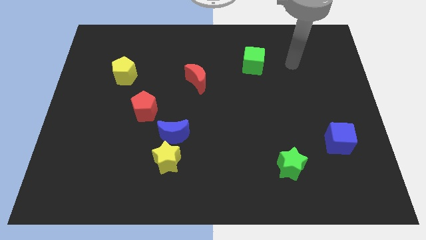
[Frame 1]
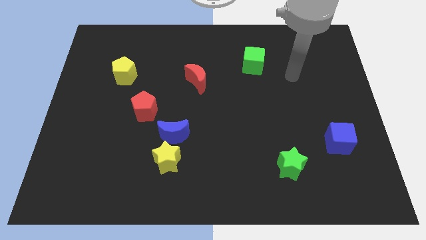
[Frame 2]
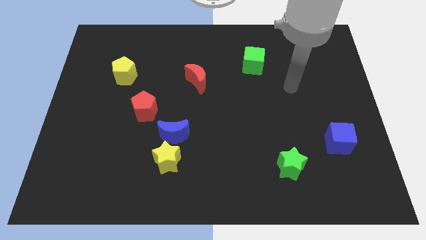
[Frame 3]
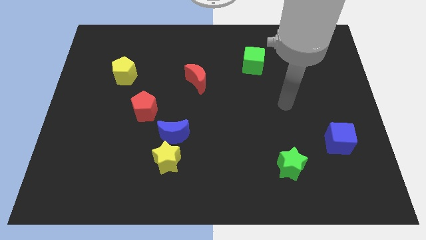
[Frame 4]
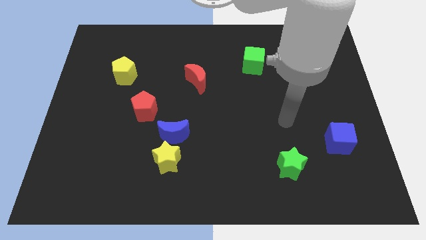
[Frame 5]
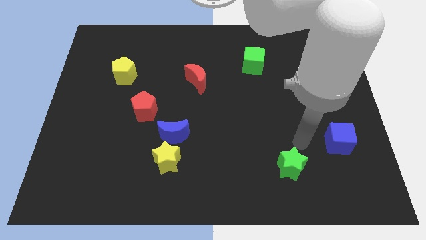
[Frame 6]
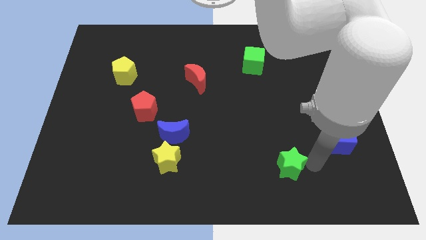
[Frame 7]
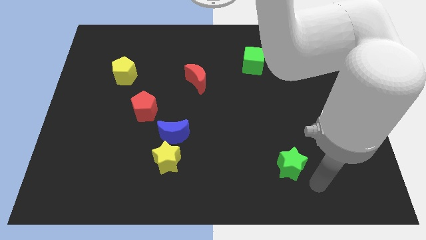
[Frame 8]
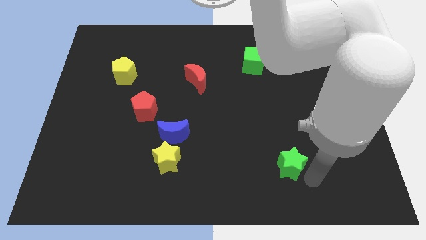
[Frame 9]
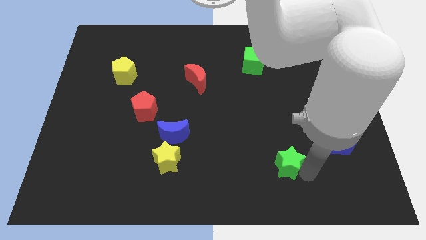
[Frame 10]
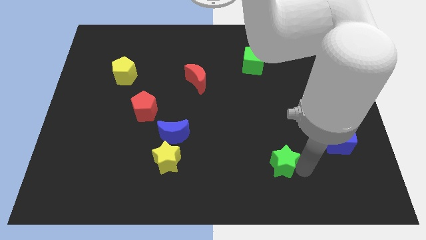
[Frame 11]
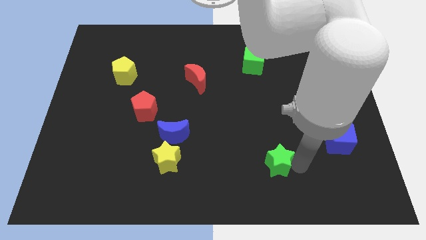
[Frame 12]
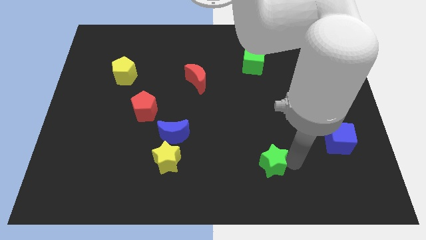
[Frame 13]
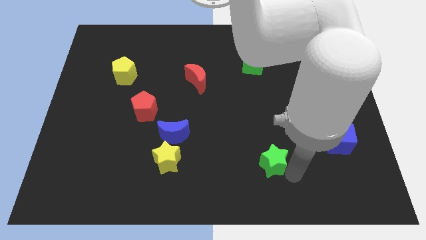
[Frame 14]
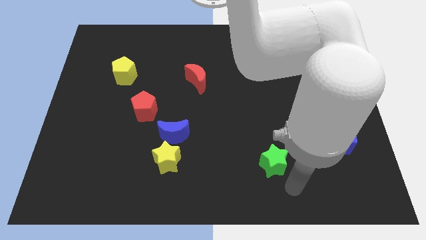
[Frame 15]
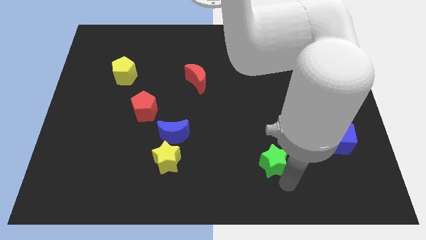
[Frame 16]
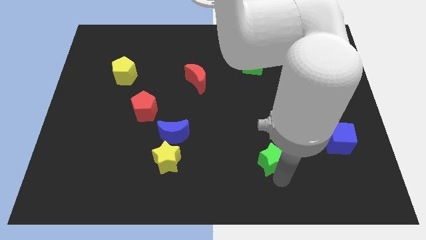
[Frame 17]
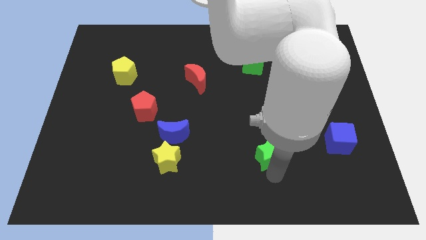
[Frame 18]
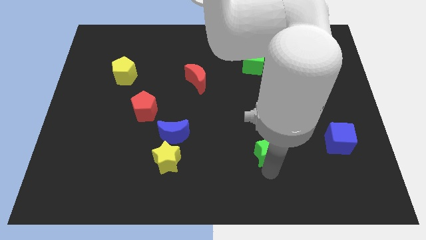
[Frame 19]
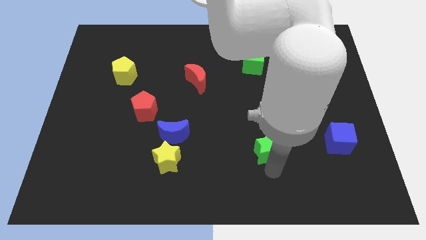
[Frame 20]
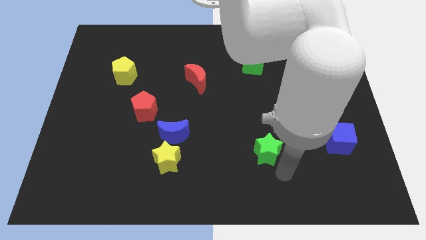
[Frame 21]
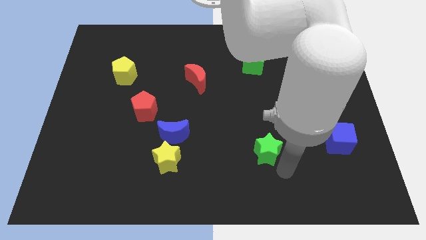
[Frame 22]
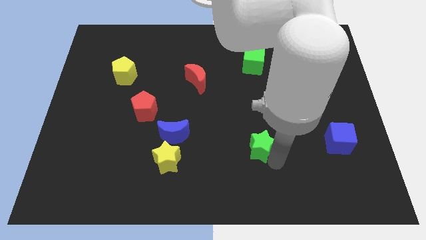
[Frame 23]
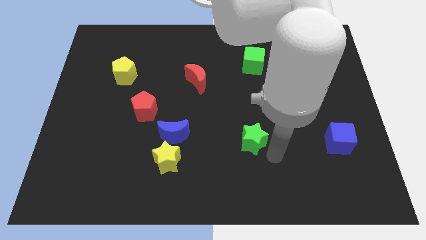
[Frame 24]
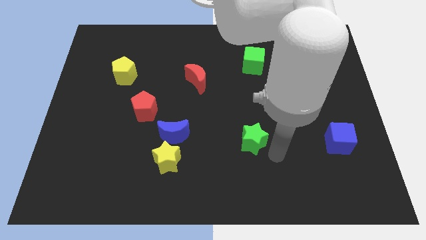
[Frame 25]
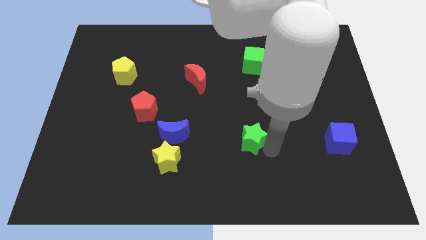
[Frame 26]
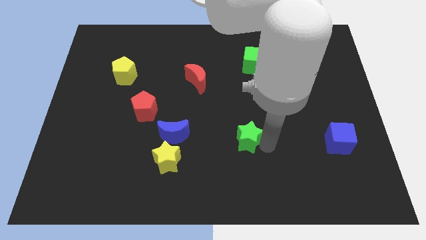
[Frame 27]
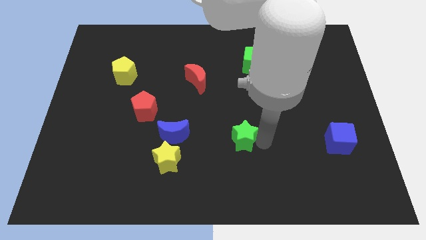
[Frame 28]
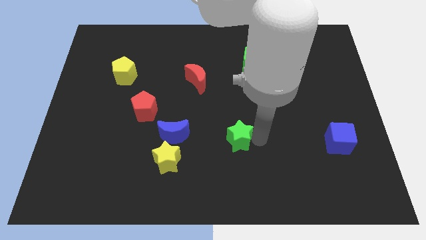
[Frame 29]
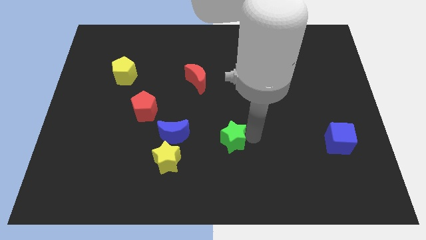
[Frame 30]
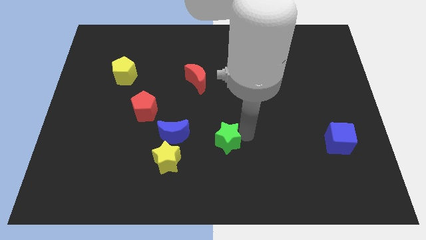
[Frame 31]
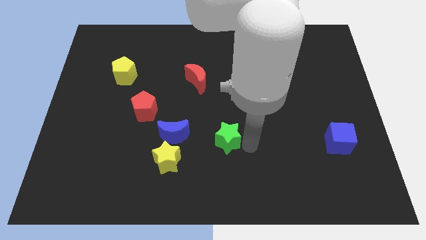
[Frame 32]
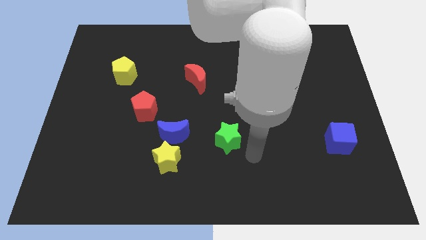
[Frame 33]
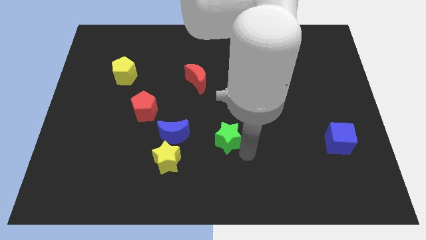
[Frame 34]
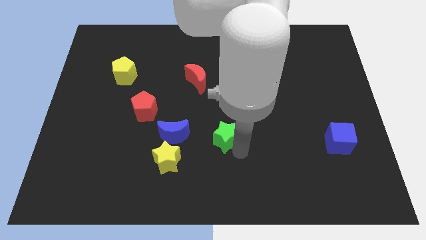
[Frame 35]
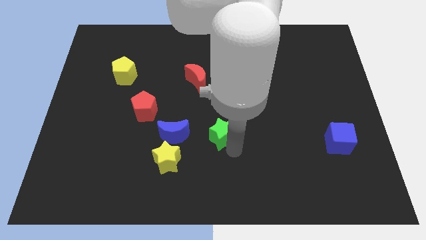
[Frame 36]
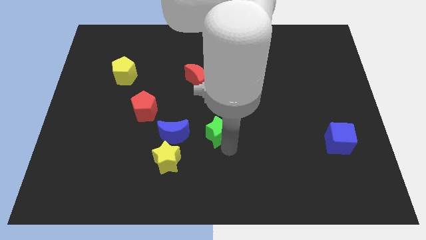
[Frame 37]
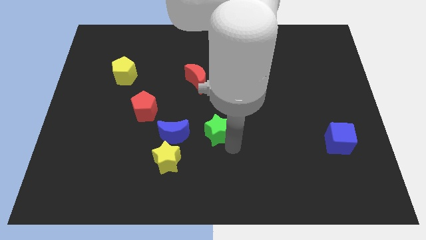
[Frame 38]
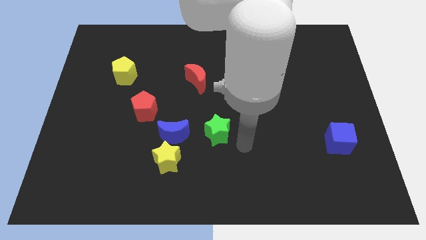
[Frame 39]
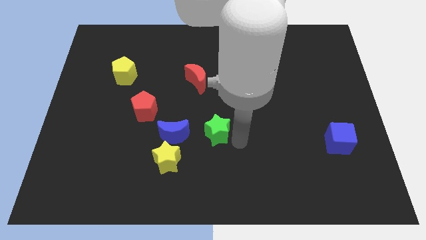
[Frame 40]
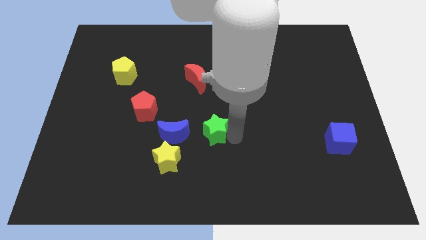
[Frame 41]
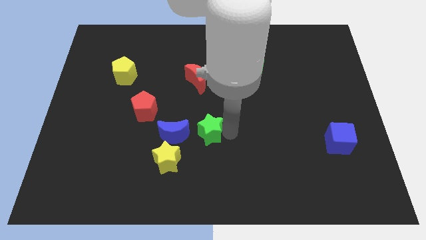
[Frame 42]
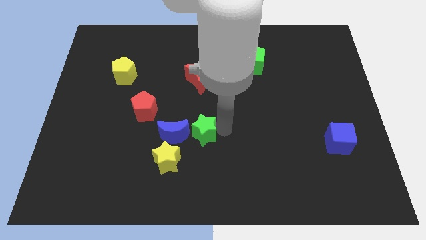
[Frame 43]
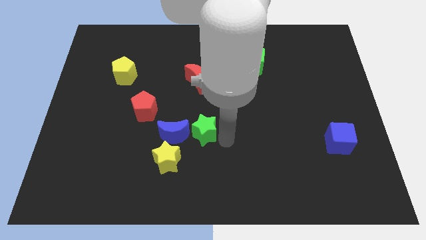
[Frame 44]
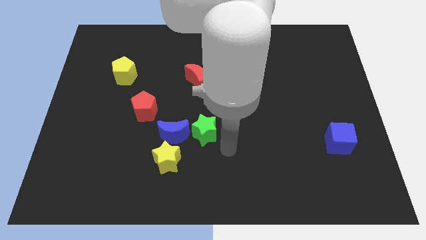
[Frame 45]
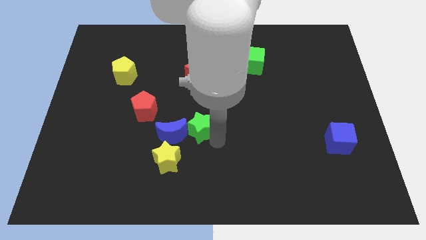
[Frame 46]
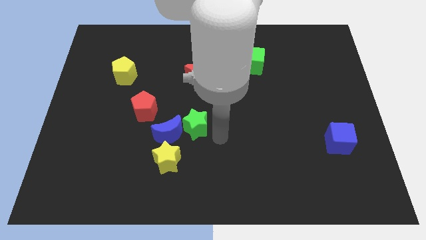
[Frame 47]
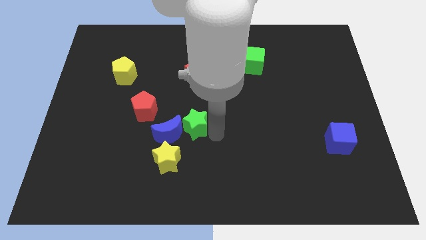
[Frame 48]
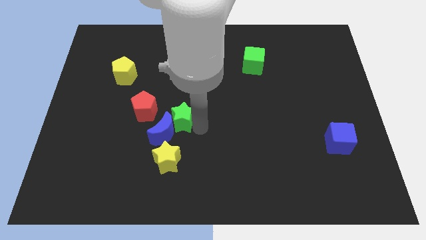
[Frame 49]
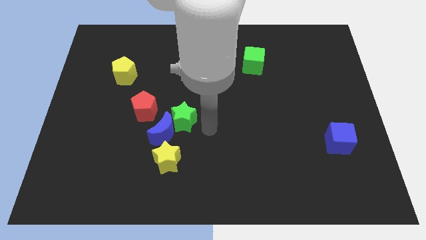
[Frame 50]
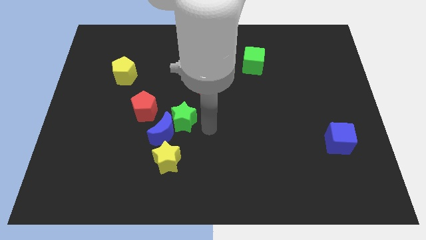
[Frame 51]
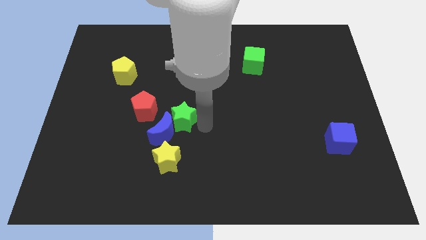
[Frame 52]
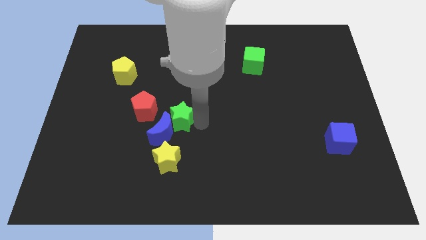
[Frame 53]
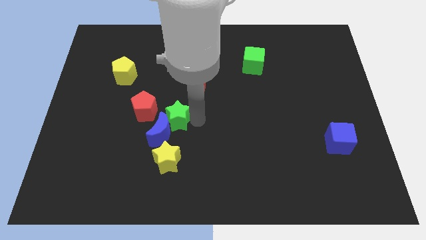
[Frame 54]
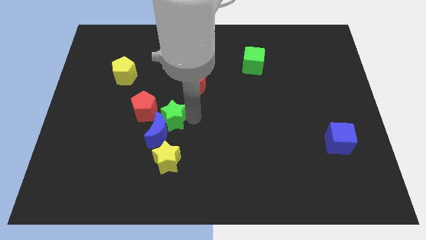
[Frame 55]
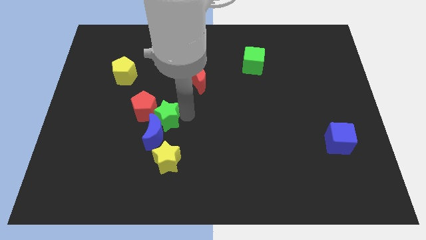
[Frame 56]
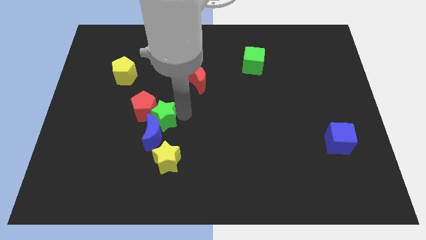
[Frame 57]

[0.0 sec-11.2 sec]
move the green star towards the red pentagon

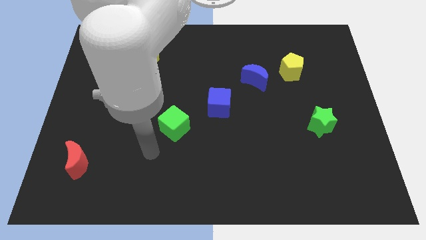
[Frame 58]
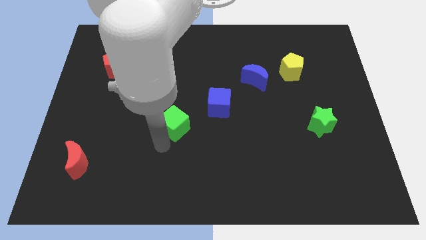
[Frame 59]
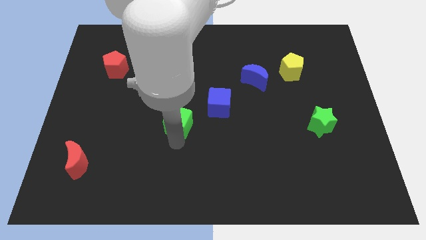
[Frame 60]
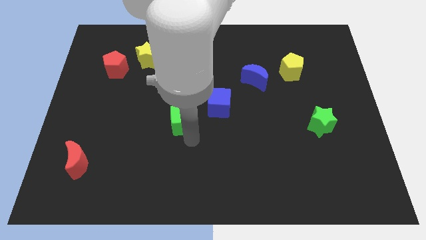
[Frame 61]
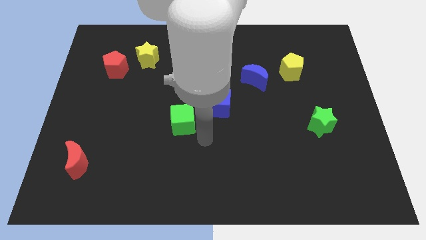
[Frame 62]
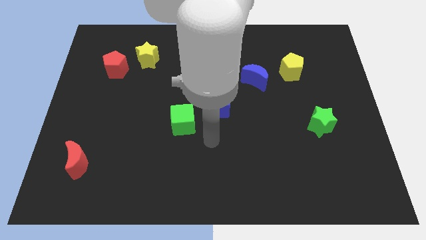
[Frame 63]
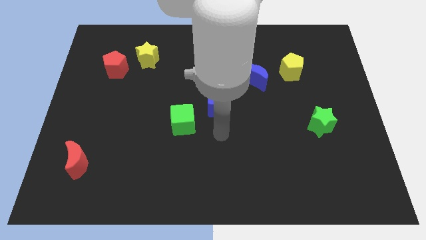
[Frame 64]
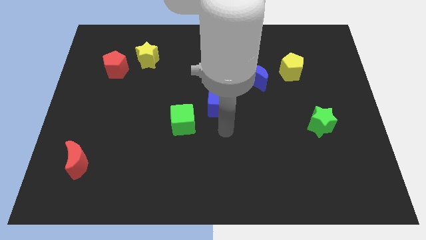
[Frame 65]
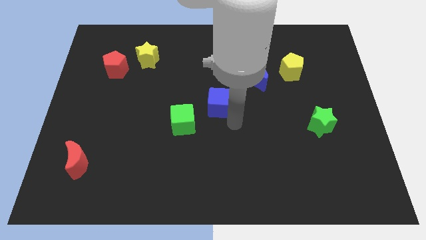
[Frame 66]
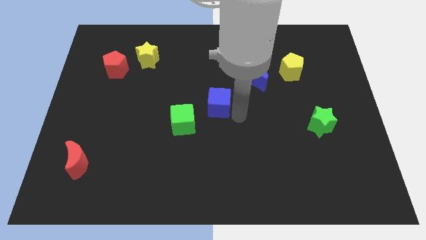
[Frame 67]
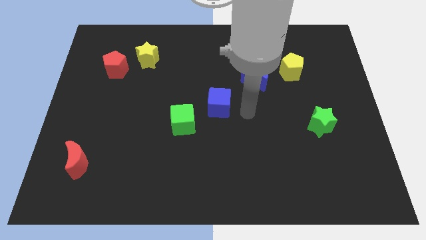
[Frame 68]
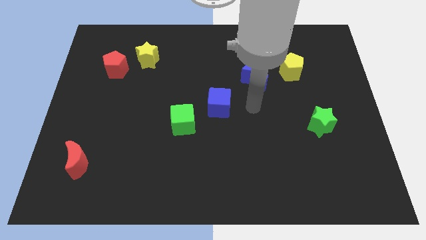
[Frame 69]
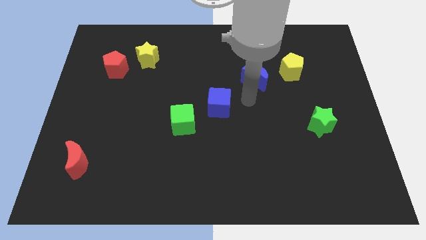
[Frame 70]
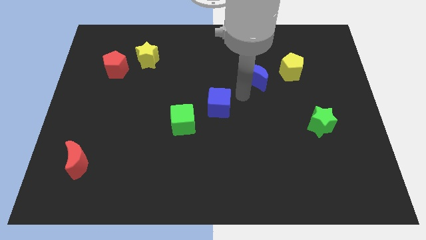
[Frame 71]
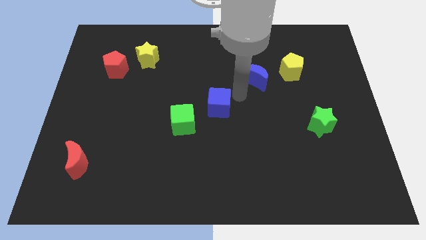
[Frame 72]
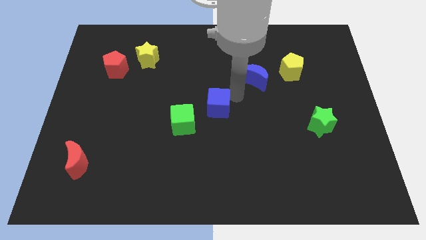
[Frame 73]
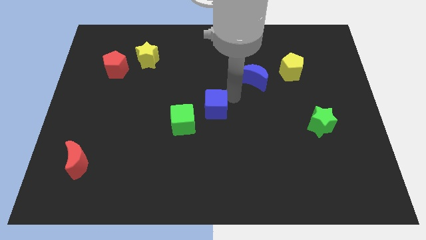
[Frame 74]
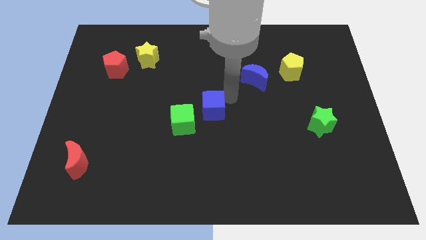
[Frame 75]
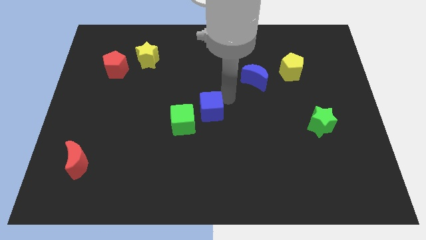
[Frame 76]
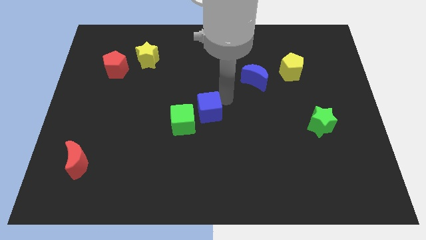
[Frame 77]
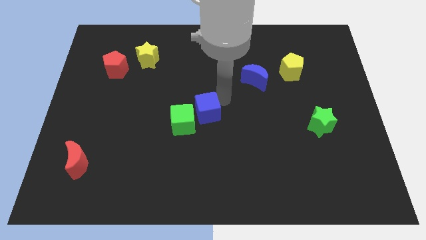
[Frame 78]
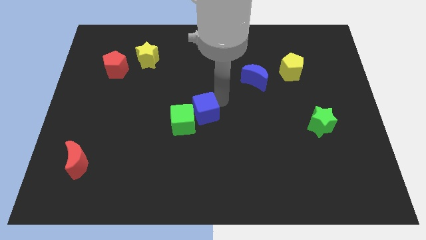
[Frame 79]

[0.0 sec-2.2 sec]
slide the blue cube towards the green cube
